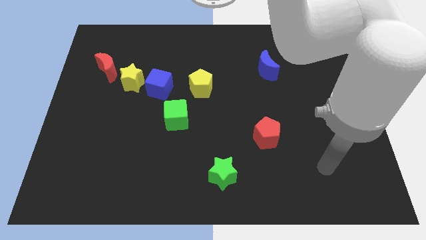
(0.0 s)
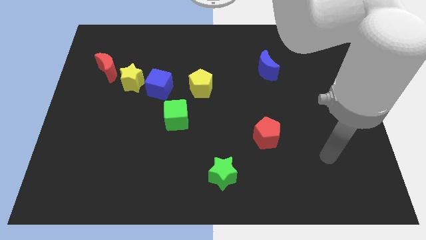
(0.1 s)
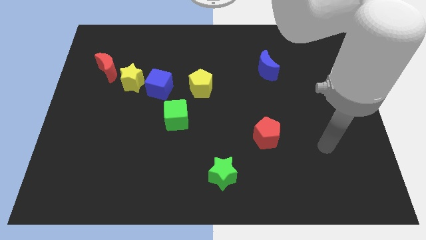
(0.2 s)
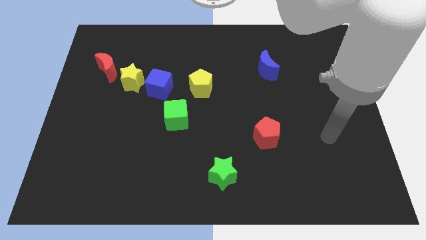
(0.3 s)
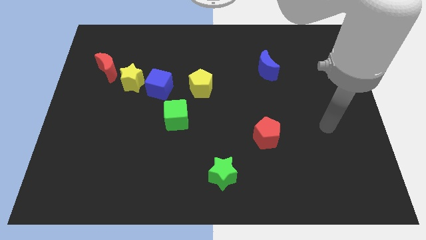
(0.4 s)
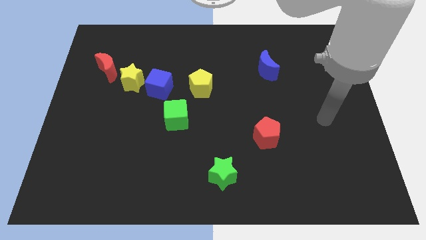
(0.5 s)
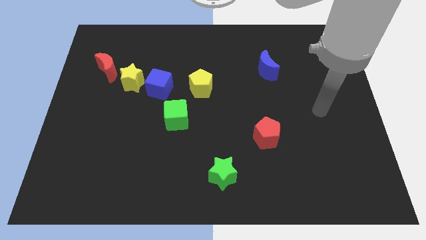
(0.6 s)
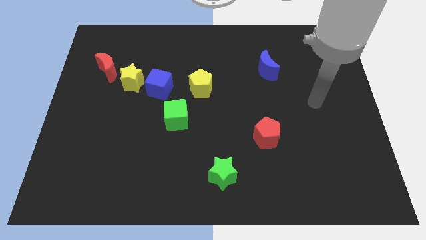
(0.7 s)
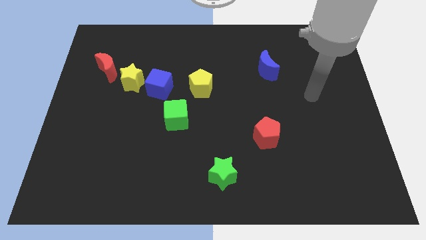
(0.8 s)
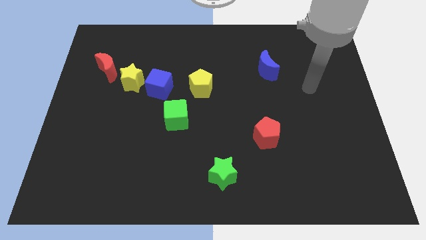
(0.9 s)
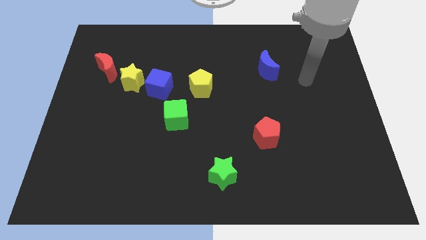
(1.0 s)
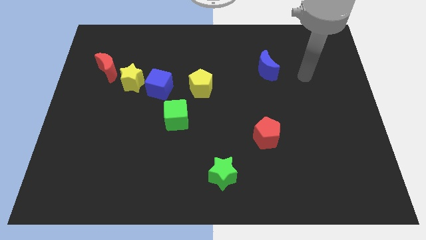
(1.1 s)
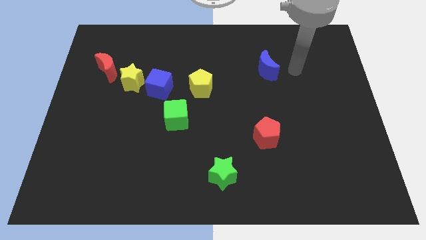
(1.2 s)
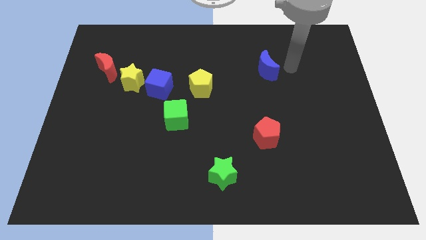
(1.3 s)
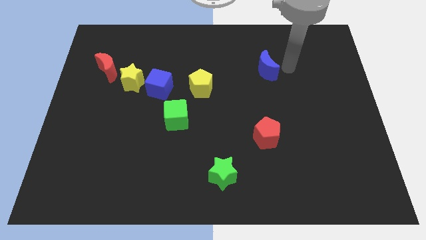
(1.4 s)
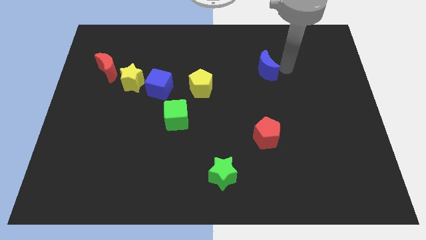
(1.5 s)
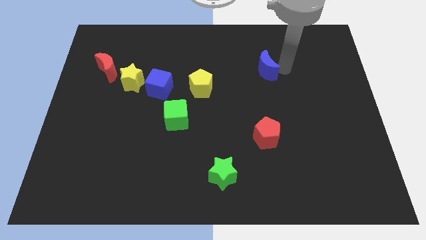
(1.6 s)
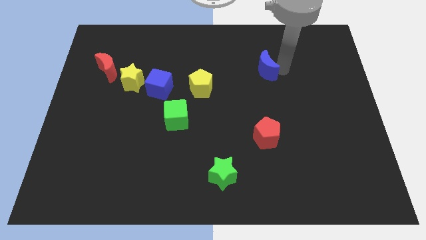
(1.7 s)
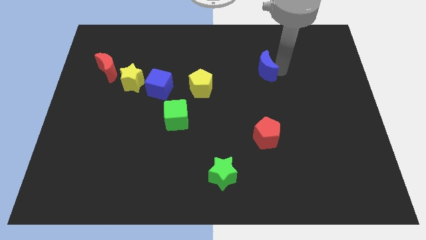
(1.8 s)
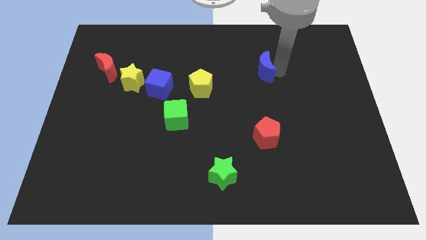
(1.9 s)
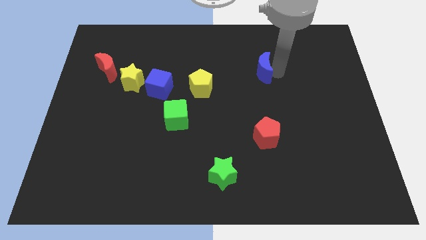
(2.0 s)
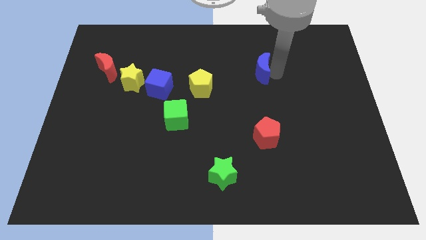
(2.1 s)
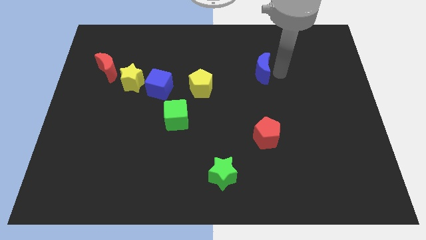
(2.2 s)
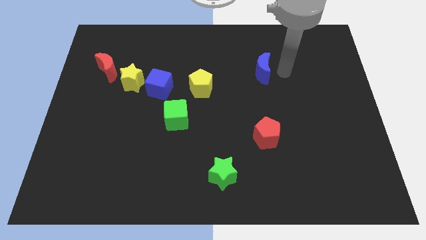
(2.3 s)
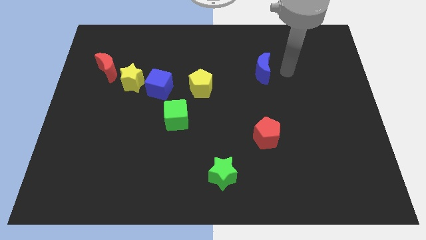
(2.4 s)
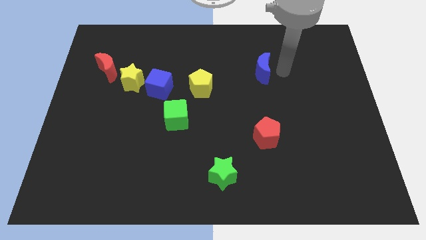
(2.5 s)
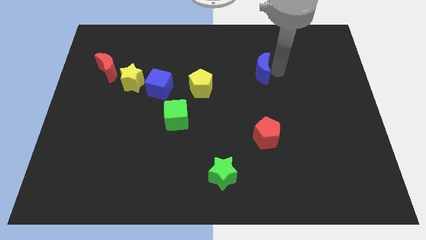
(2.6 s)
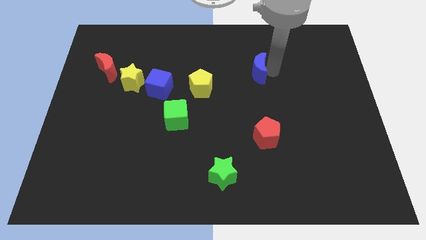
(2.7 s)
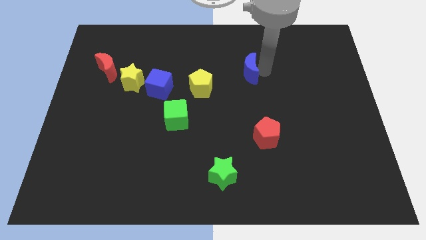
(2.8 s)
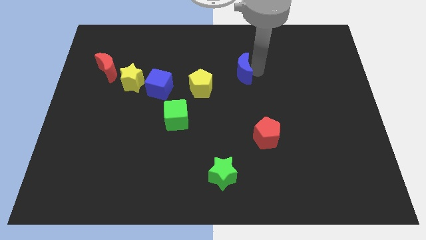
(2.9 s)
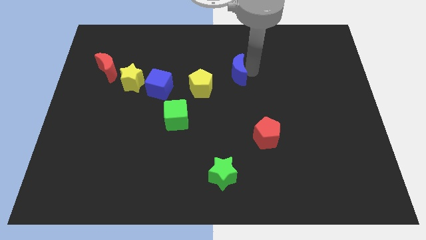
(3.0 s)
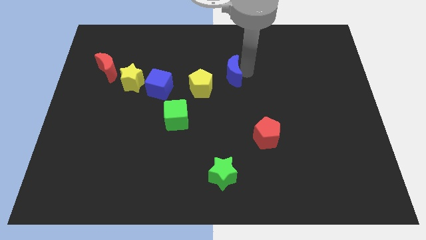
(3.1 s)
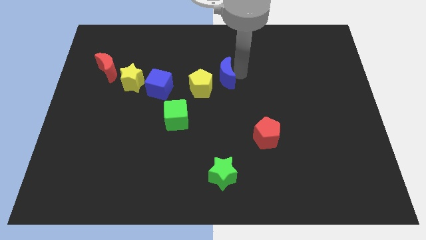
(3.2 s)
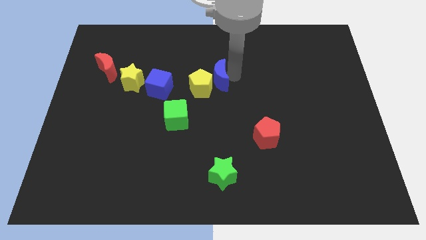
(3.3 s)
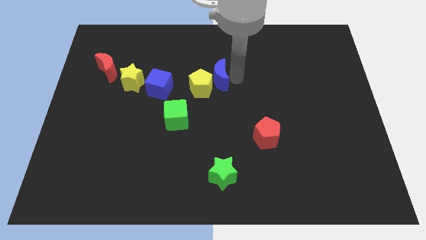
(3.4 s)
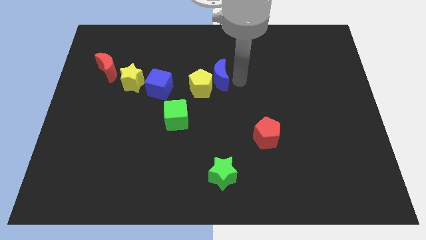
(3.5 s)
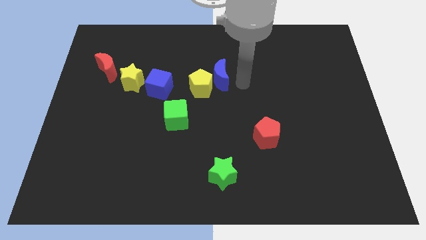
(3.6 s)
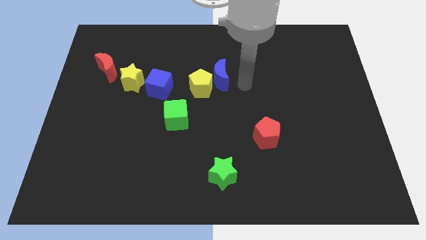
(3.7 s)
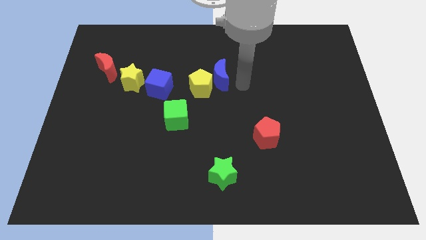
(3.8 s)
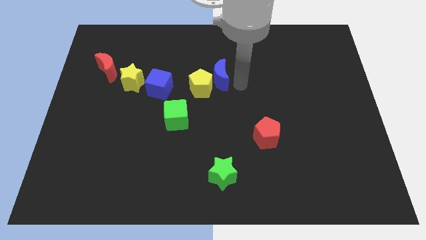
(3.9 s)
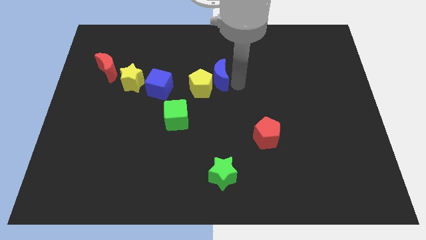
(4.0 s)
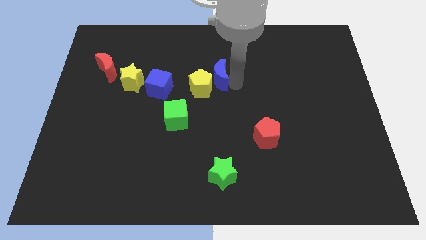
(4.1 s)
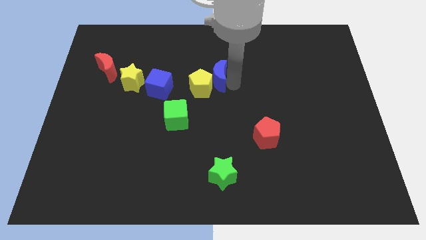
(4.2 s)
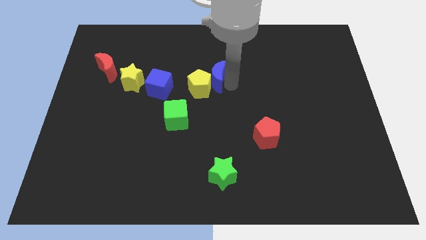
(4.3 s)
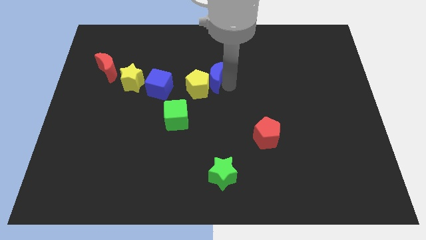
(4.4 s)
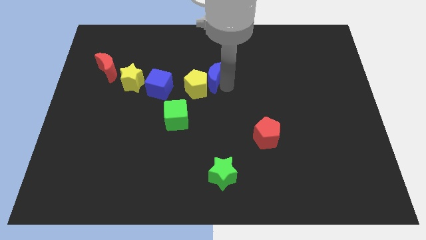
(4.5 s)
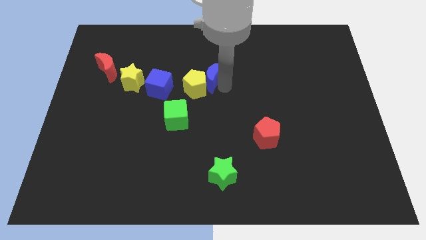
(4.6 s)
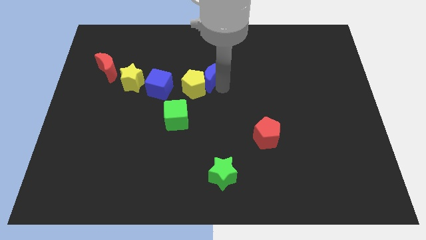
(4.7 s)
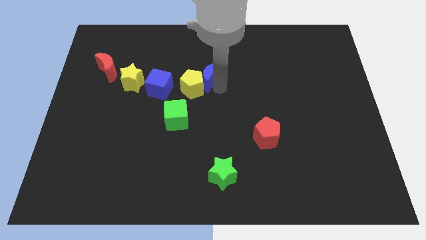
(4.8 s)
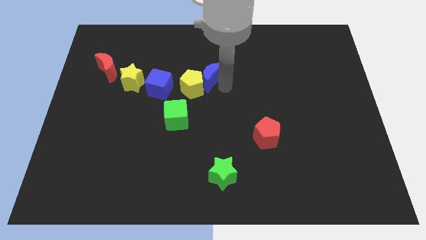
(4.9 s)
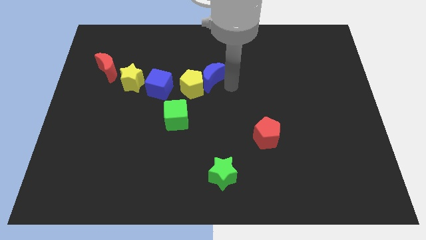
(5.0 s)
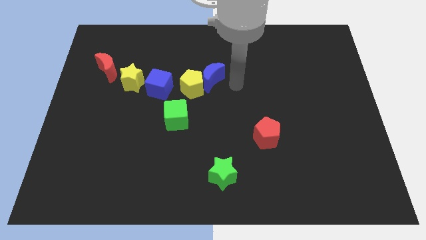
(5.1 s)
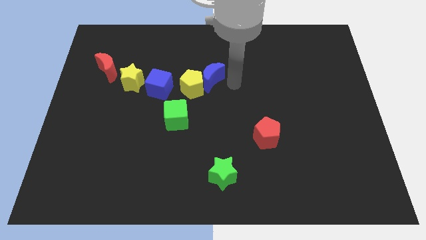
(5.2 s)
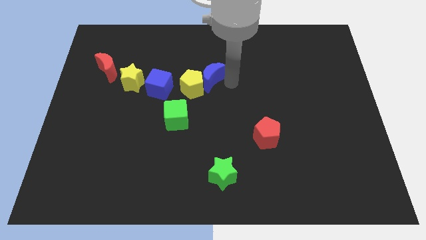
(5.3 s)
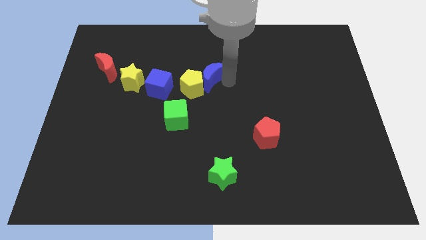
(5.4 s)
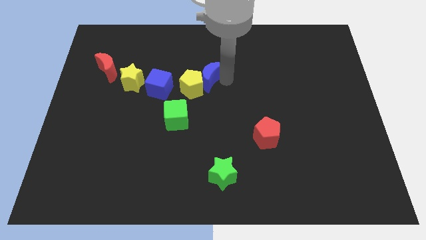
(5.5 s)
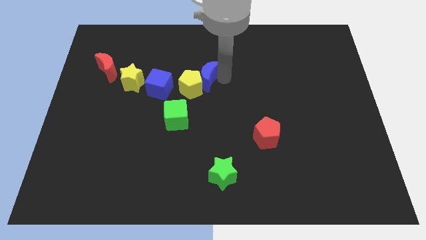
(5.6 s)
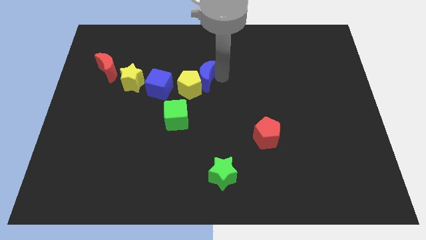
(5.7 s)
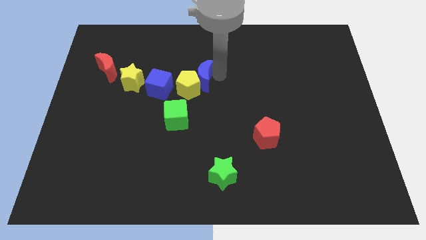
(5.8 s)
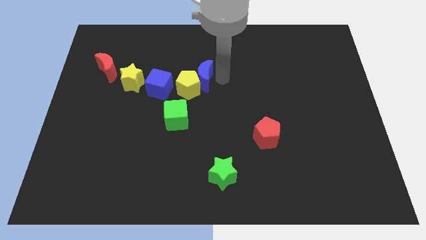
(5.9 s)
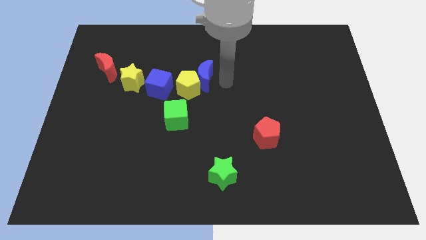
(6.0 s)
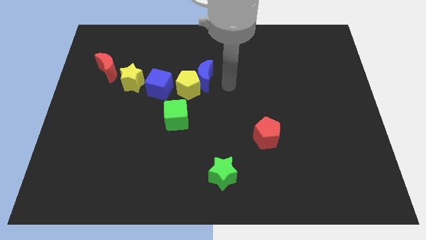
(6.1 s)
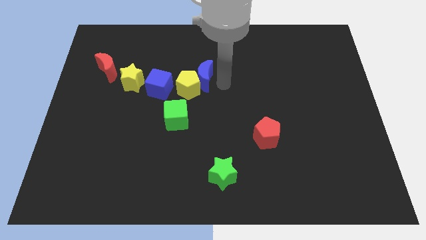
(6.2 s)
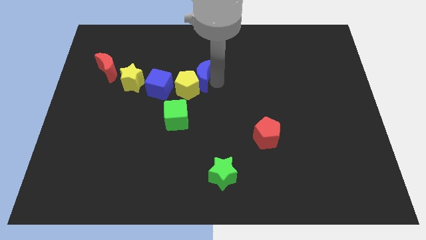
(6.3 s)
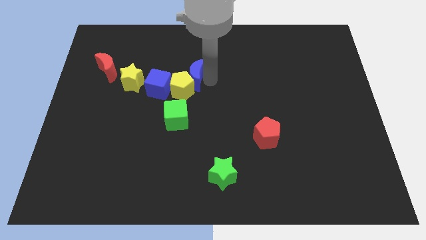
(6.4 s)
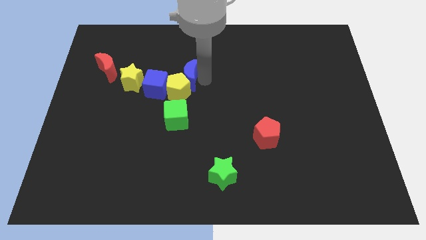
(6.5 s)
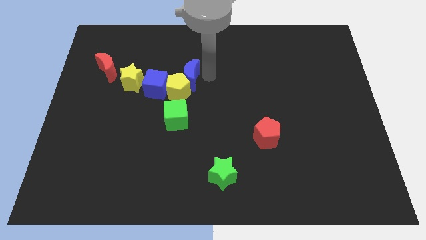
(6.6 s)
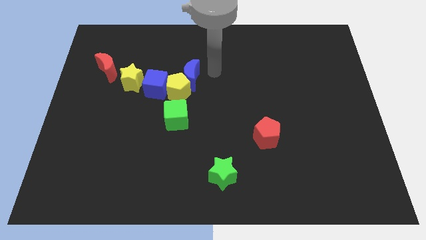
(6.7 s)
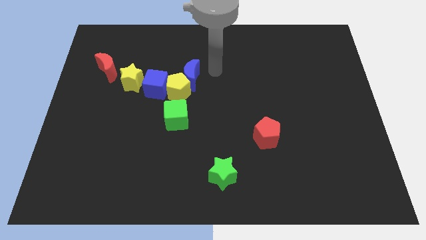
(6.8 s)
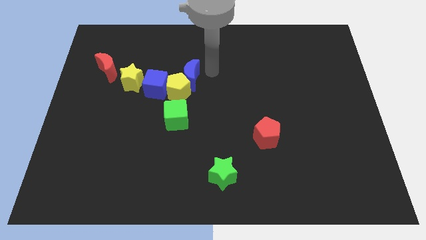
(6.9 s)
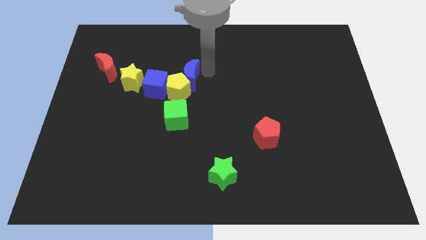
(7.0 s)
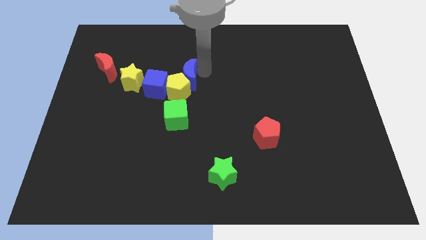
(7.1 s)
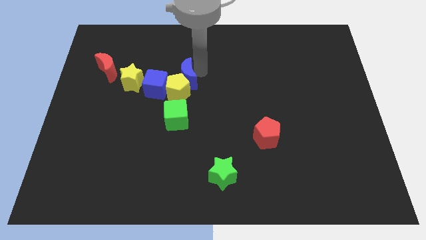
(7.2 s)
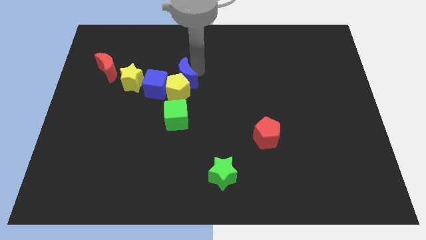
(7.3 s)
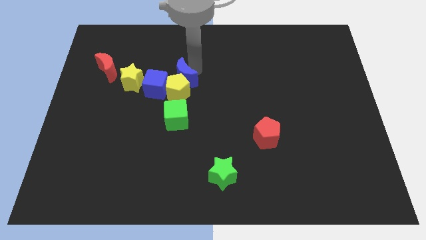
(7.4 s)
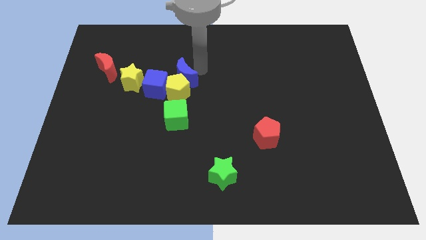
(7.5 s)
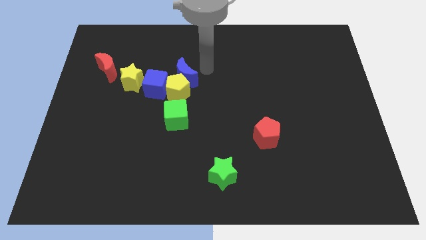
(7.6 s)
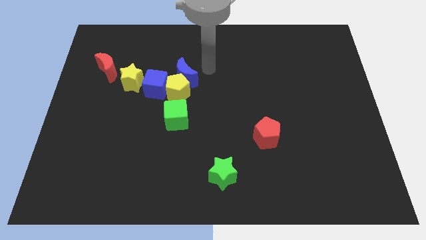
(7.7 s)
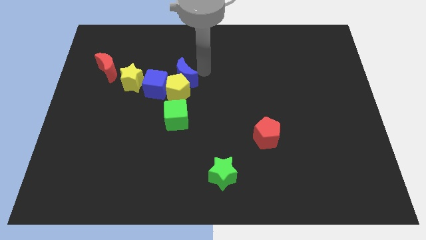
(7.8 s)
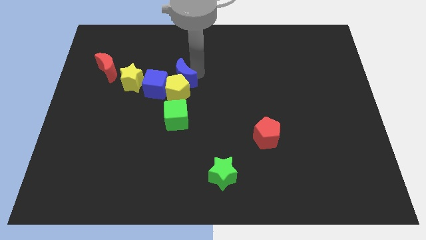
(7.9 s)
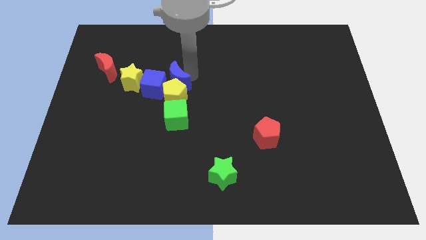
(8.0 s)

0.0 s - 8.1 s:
slide the blue moon towards the blue cube
